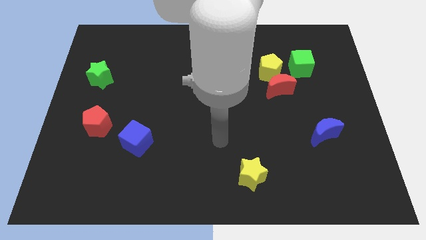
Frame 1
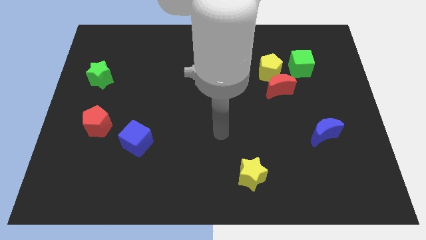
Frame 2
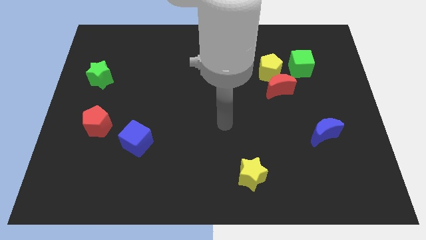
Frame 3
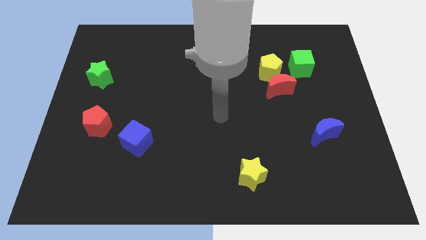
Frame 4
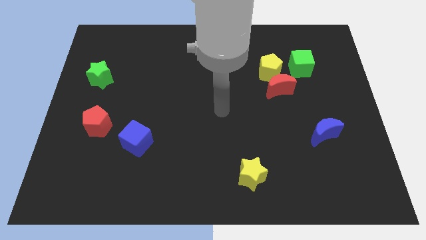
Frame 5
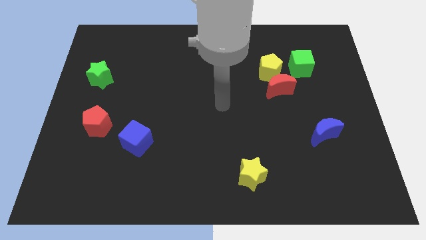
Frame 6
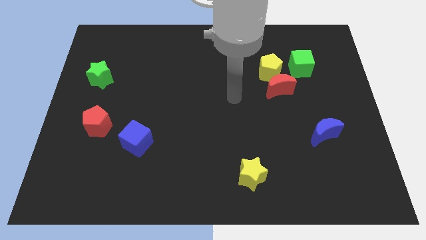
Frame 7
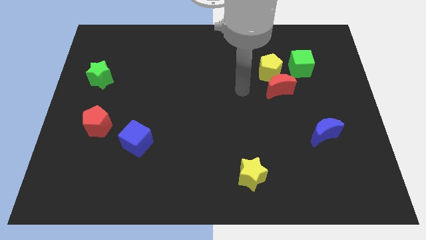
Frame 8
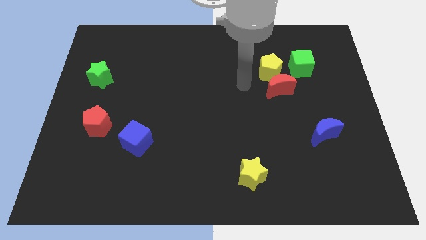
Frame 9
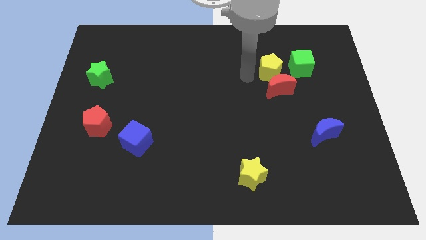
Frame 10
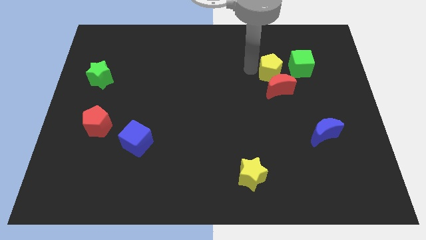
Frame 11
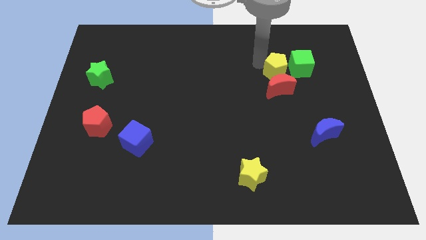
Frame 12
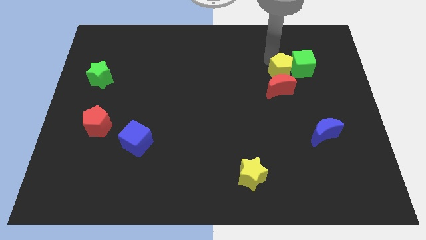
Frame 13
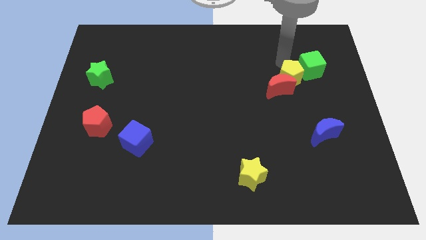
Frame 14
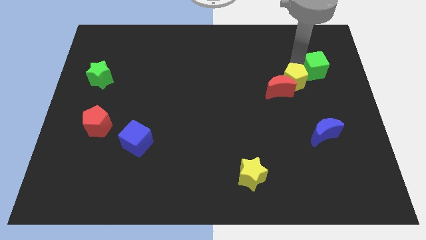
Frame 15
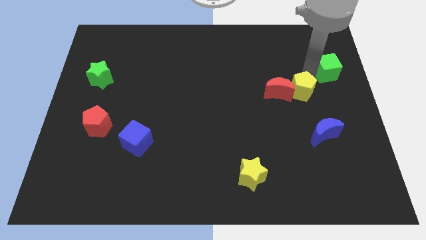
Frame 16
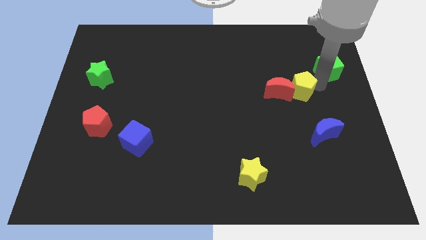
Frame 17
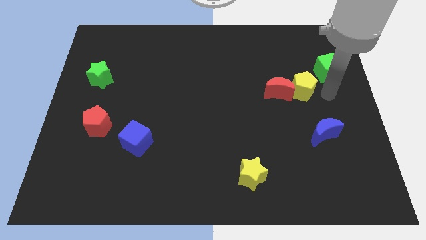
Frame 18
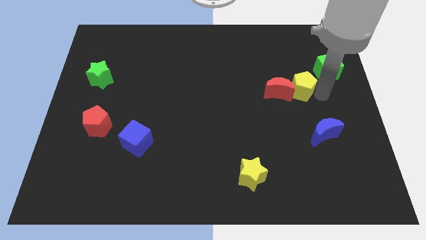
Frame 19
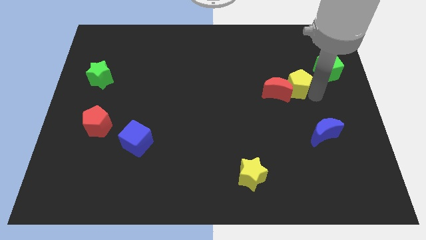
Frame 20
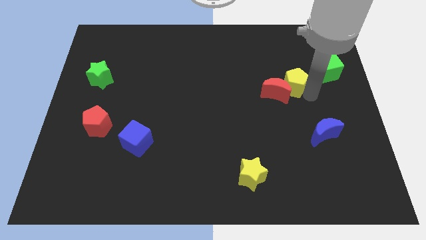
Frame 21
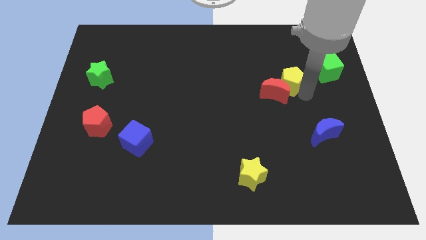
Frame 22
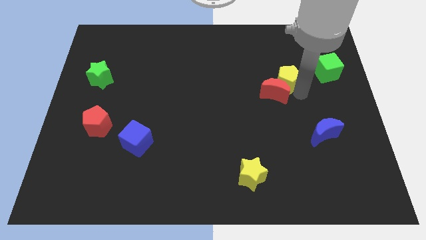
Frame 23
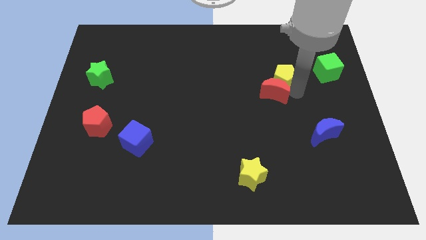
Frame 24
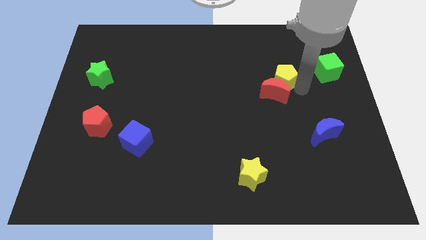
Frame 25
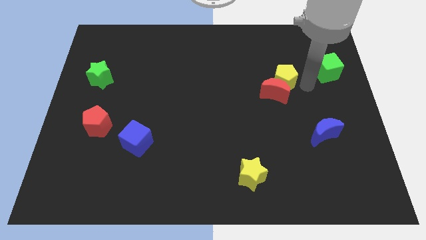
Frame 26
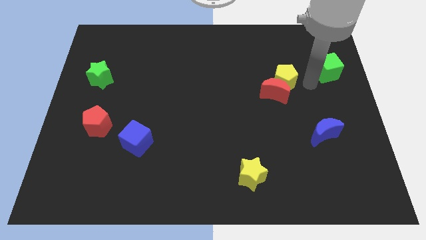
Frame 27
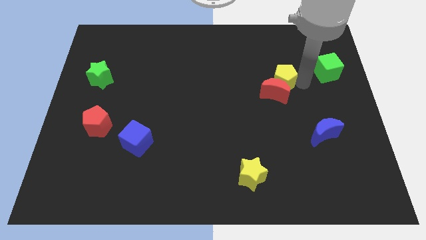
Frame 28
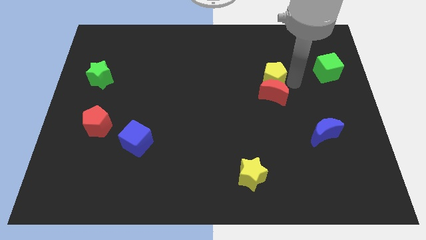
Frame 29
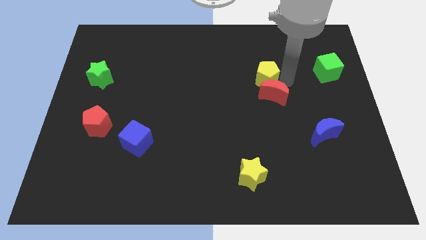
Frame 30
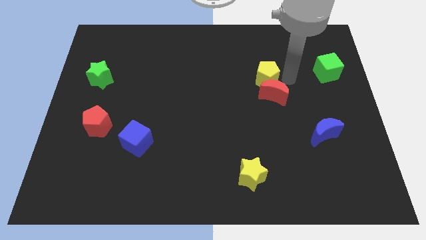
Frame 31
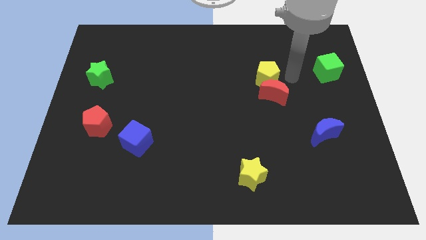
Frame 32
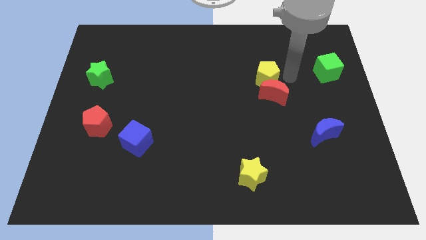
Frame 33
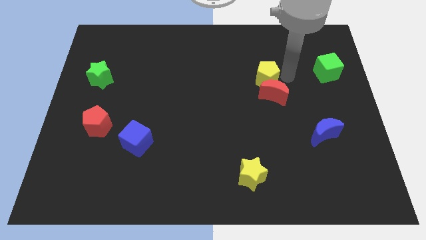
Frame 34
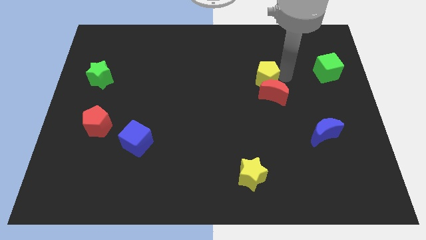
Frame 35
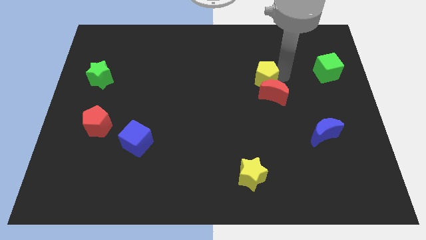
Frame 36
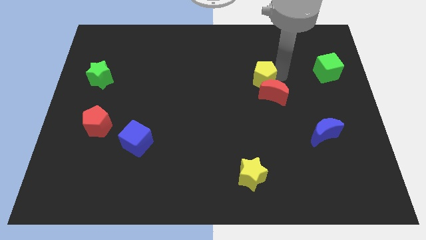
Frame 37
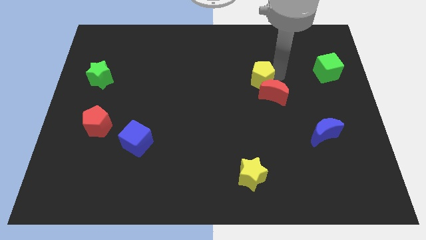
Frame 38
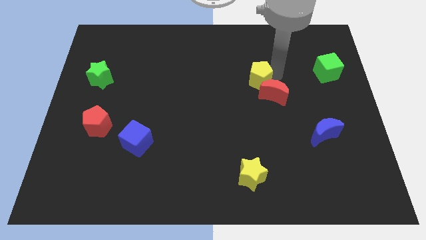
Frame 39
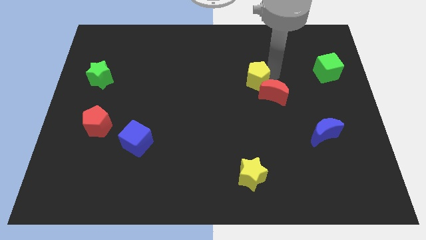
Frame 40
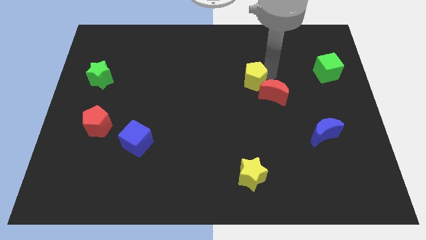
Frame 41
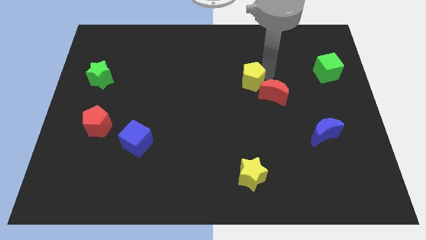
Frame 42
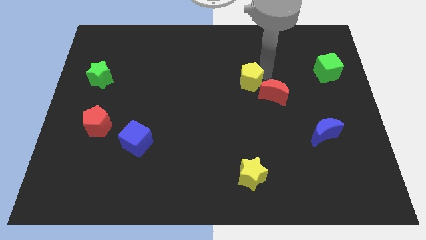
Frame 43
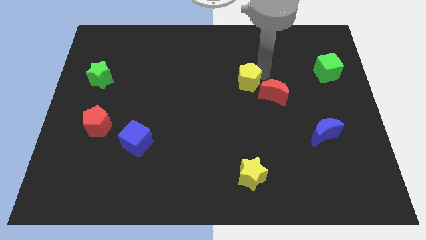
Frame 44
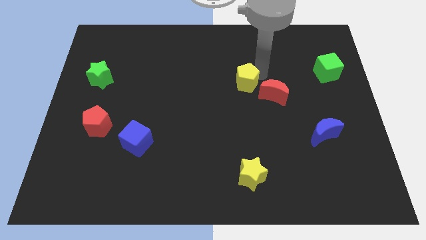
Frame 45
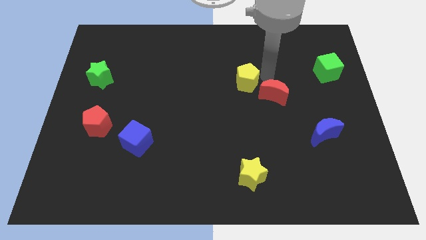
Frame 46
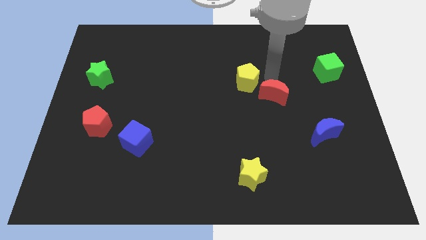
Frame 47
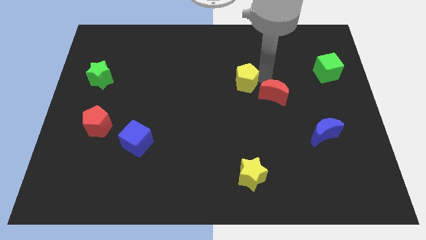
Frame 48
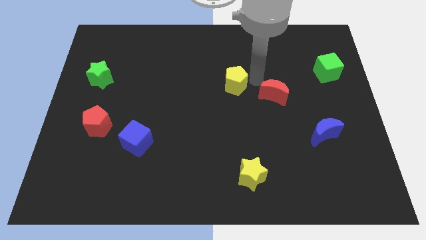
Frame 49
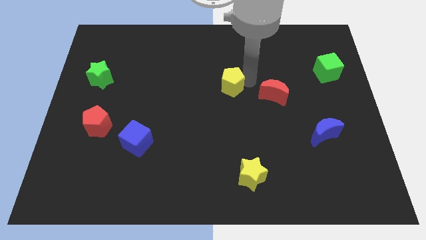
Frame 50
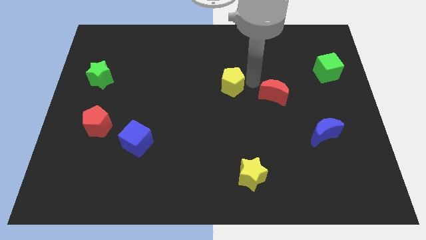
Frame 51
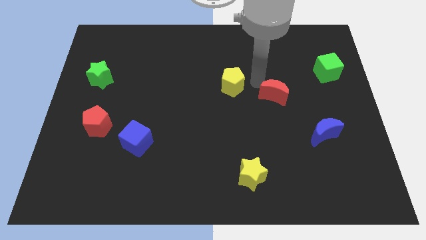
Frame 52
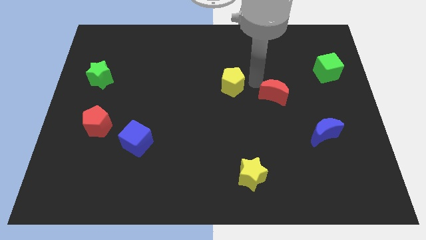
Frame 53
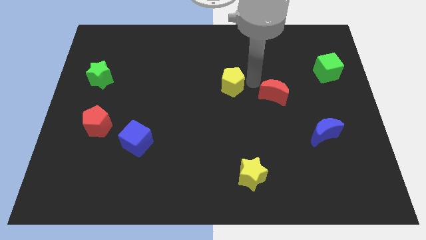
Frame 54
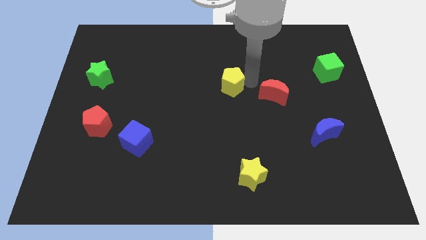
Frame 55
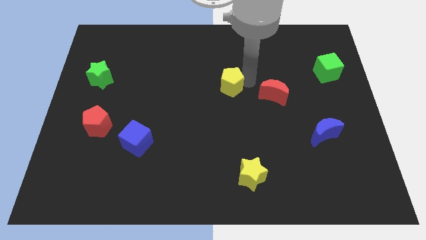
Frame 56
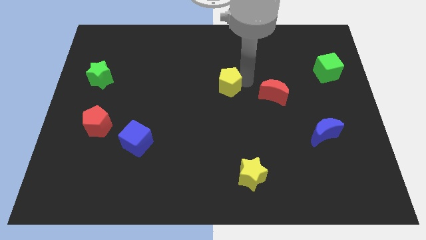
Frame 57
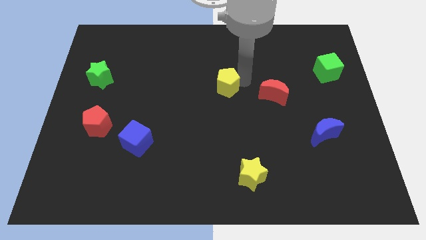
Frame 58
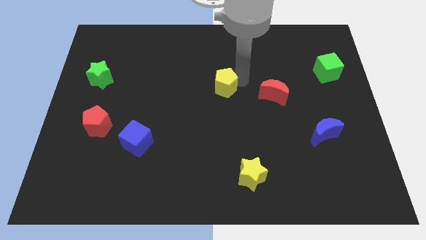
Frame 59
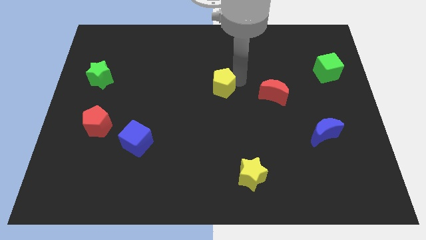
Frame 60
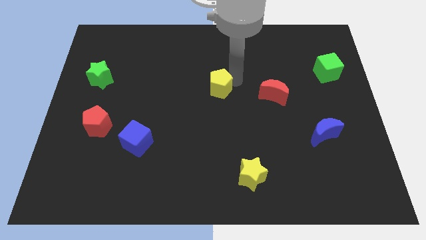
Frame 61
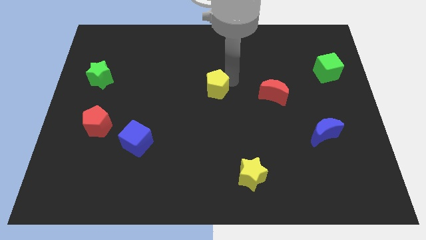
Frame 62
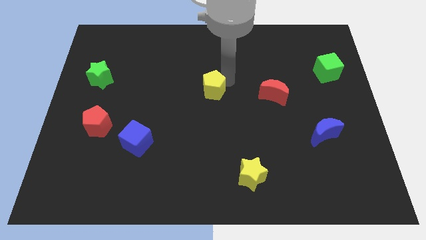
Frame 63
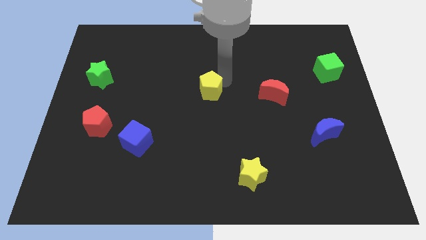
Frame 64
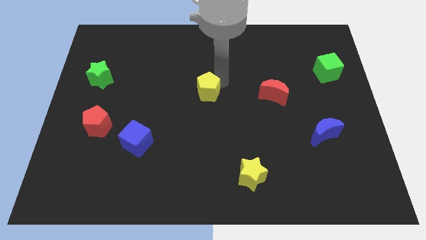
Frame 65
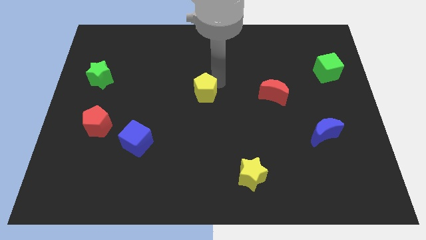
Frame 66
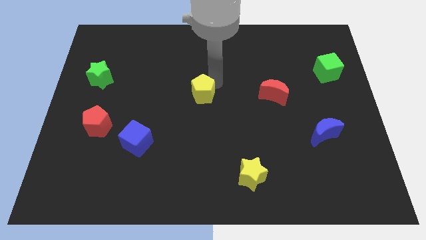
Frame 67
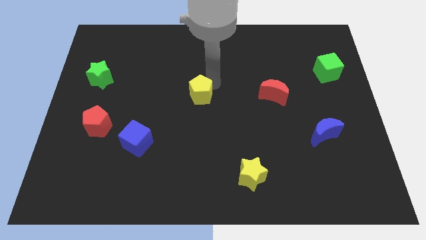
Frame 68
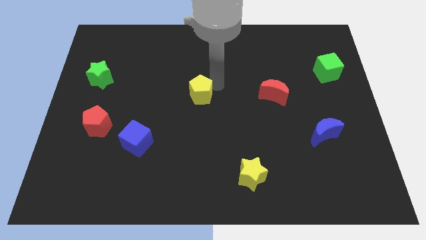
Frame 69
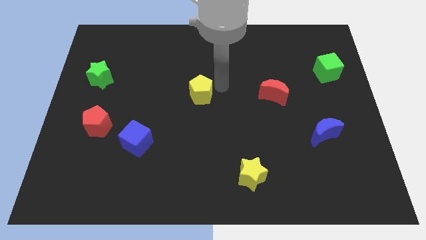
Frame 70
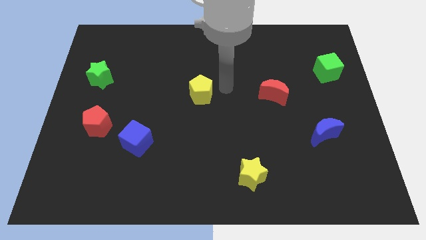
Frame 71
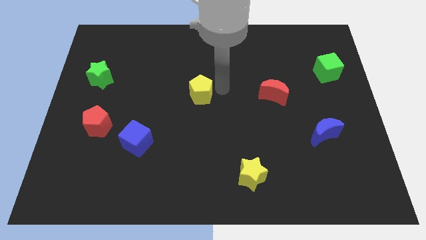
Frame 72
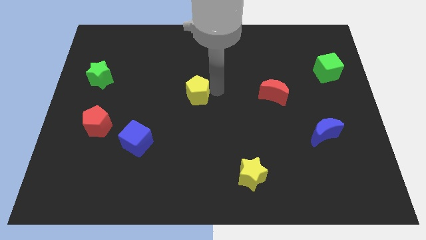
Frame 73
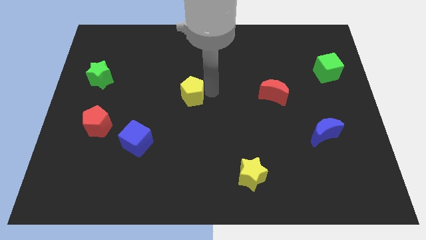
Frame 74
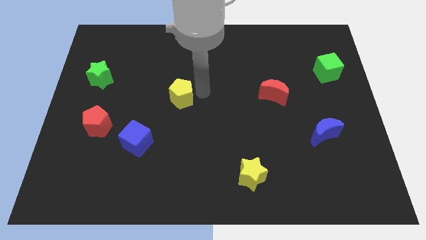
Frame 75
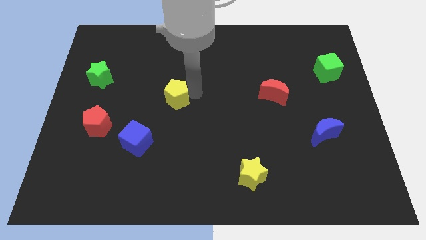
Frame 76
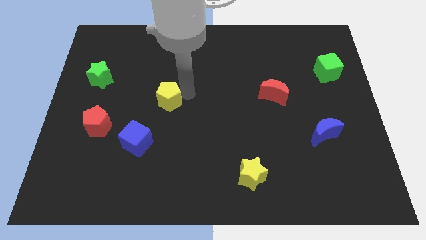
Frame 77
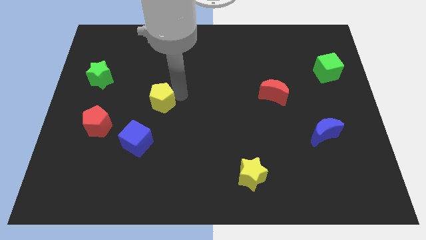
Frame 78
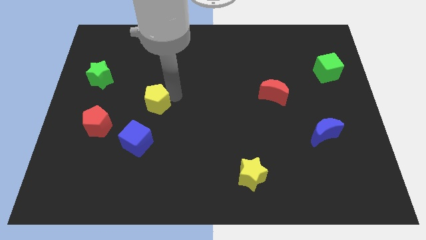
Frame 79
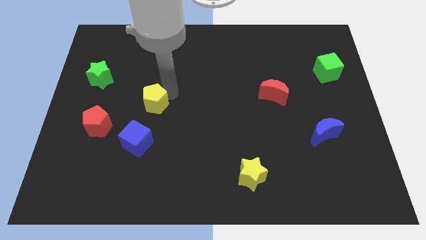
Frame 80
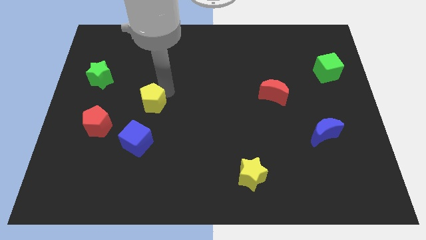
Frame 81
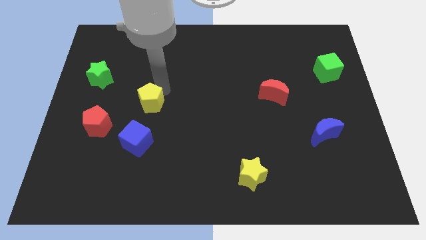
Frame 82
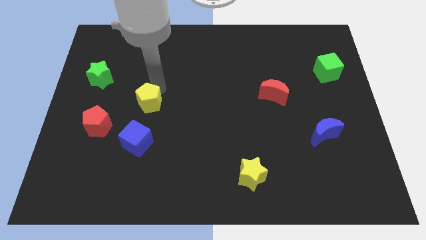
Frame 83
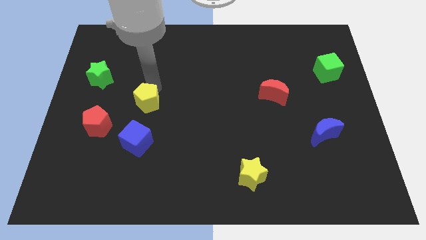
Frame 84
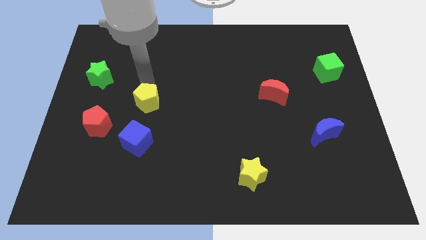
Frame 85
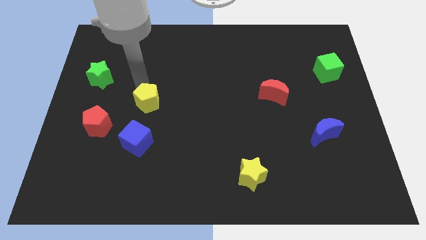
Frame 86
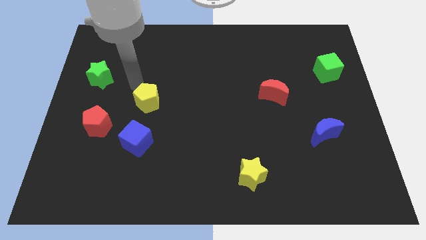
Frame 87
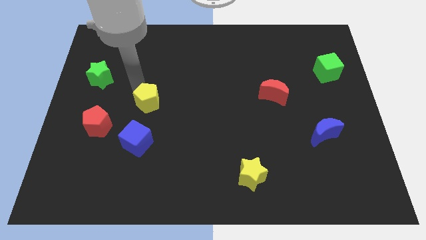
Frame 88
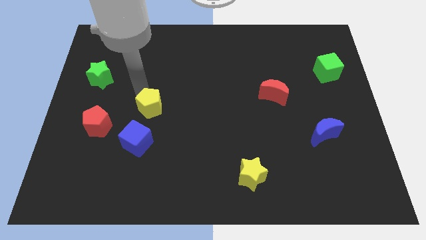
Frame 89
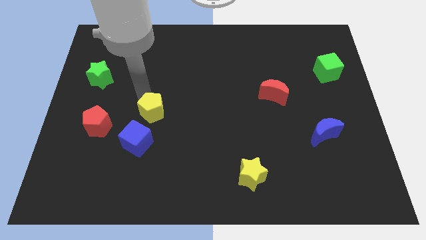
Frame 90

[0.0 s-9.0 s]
put the yellow pentagon to the right of the red pentagon
